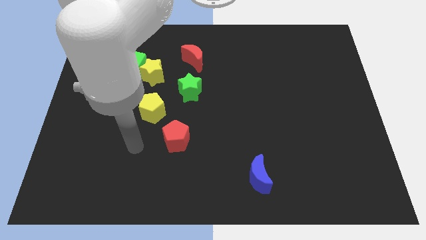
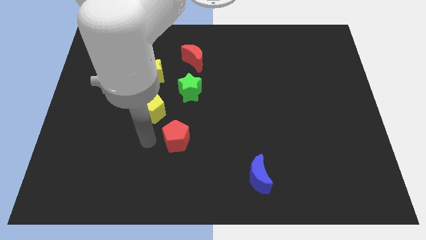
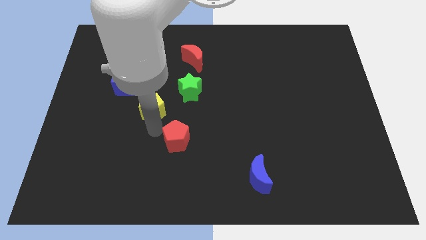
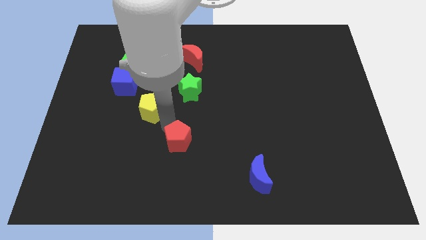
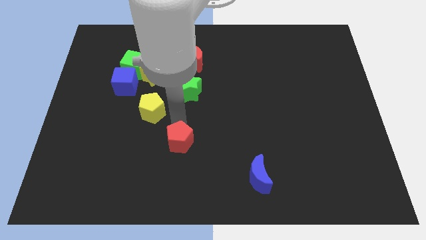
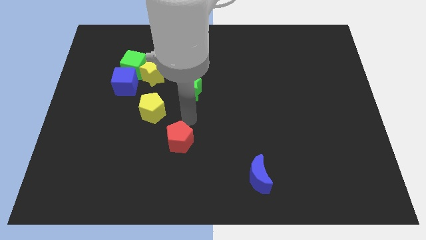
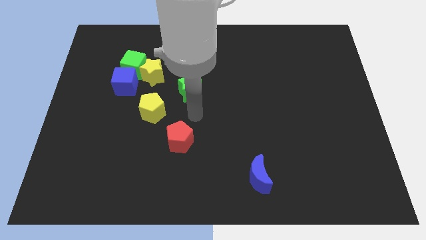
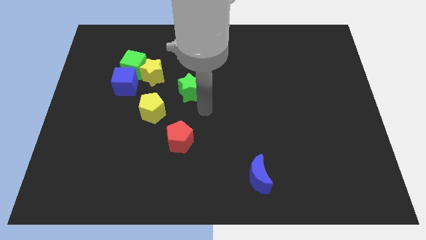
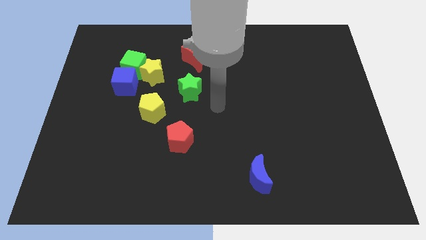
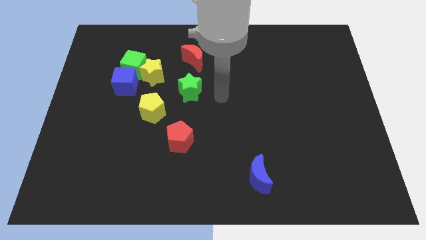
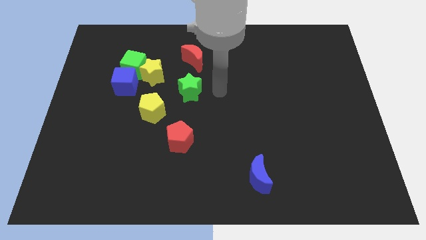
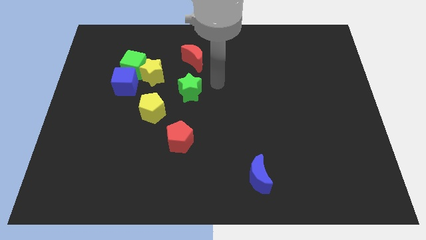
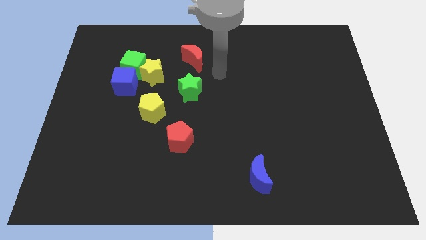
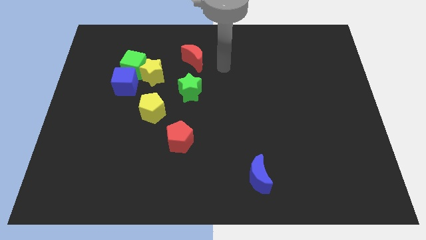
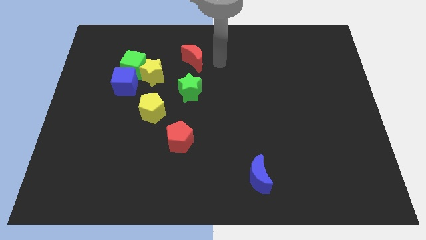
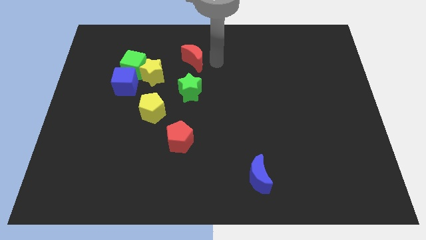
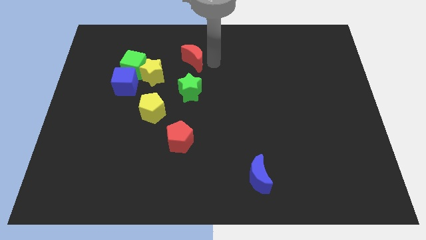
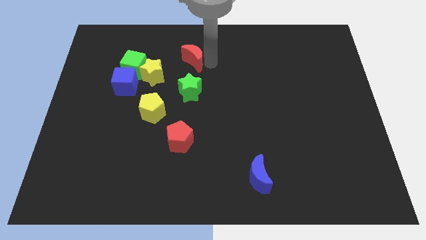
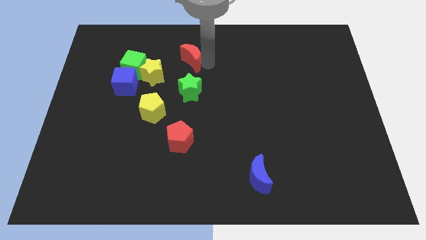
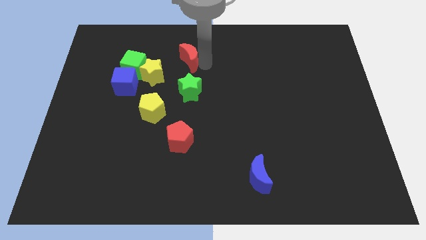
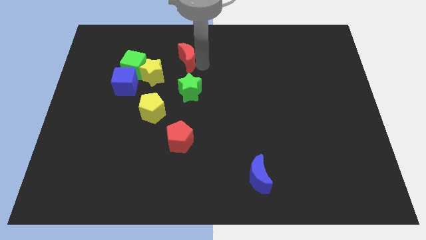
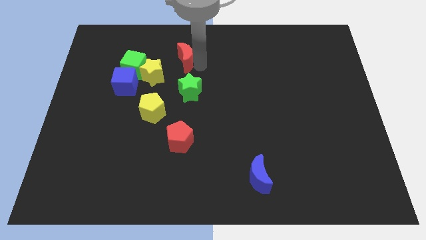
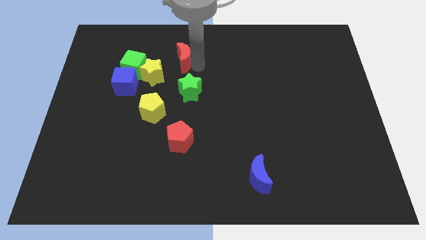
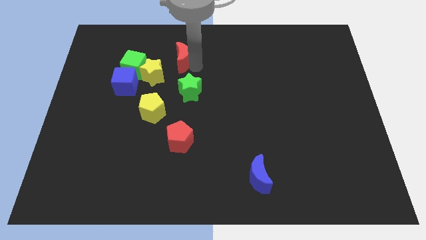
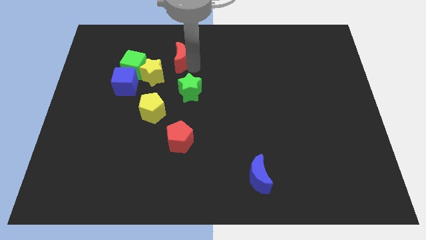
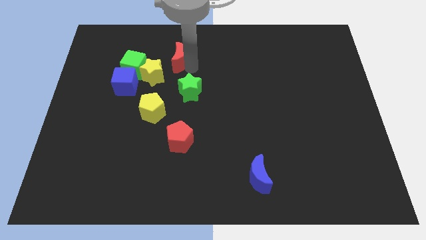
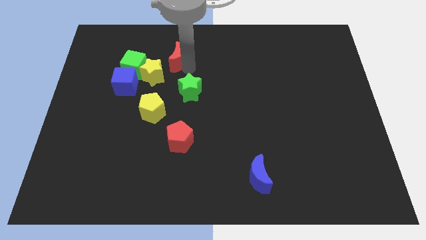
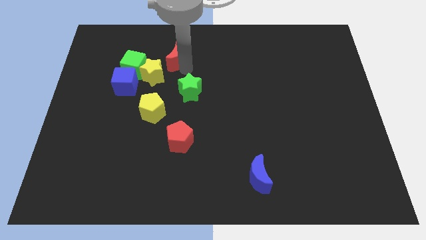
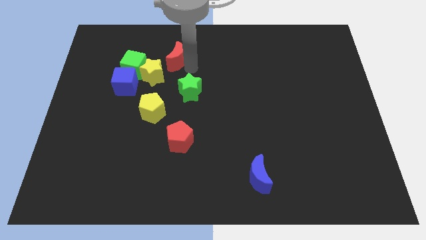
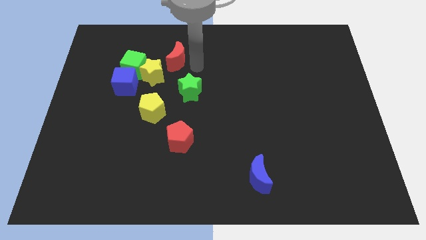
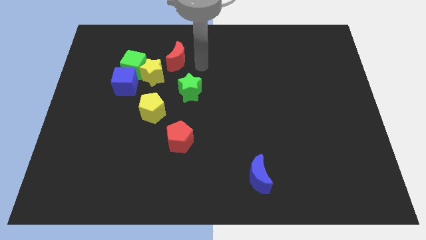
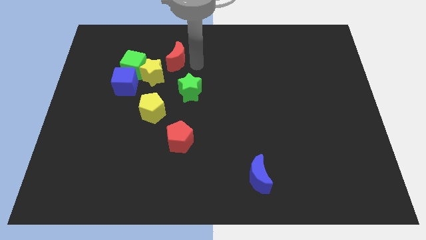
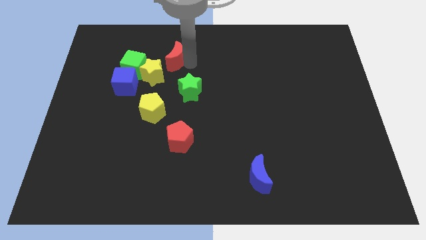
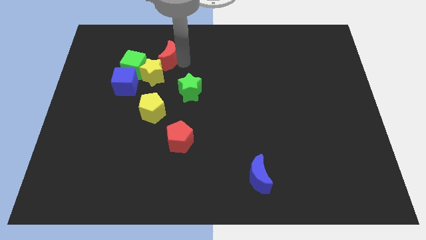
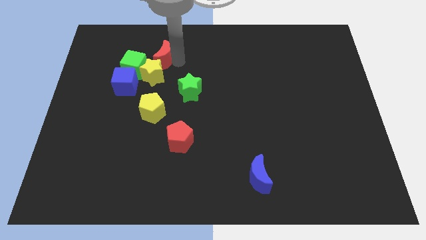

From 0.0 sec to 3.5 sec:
push the red moon to the left a bit

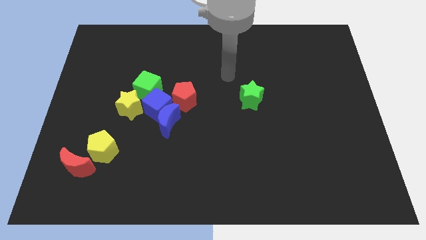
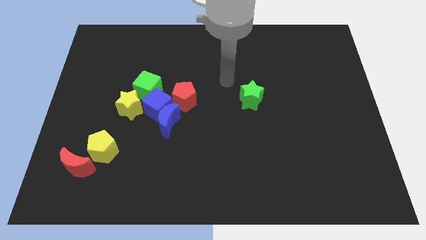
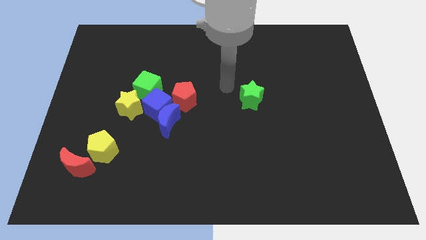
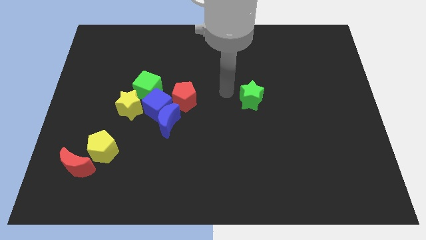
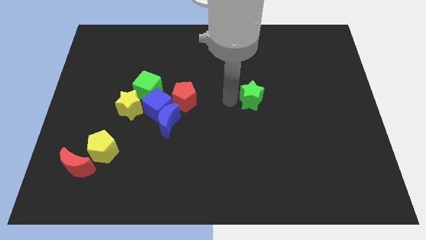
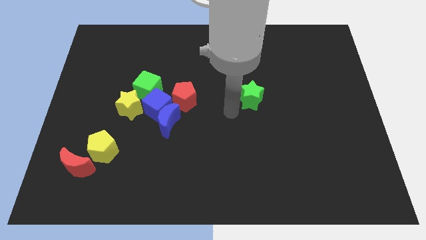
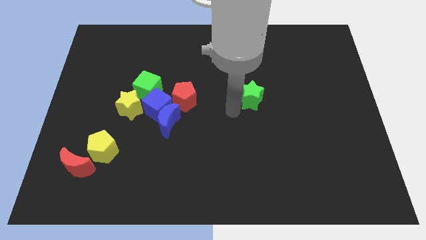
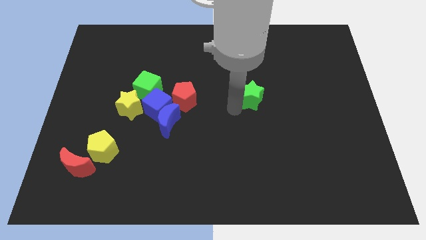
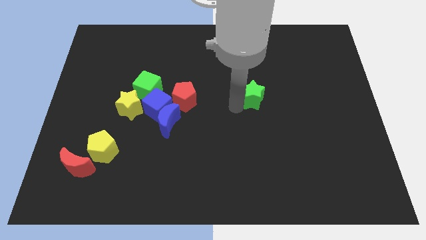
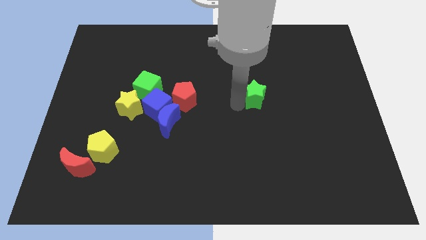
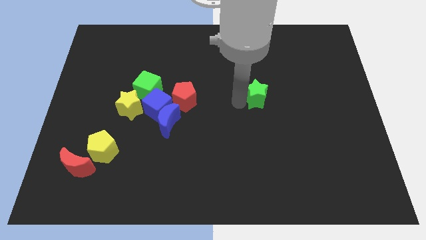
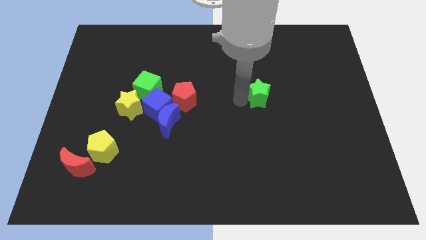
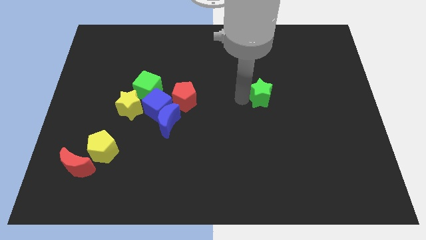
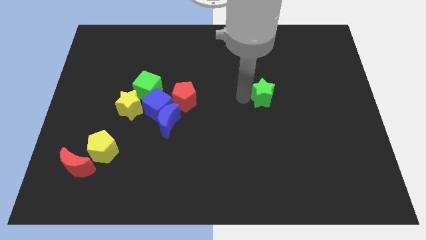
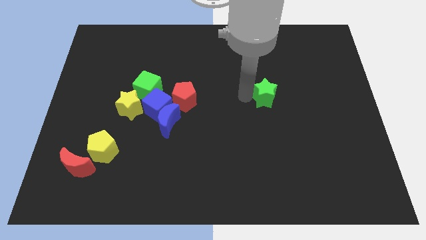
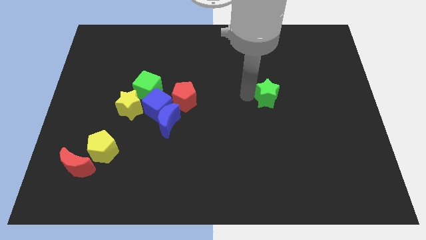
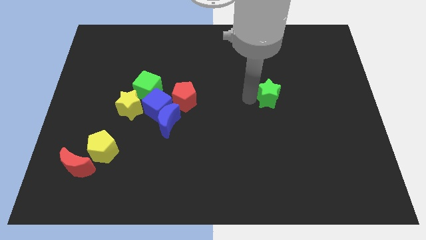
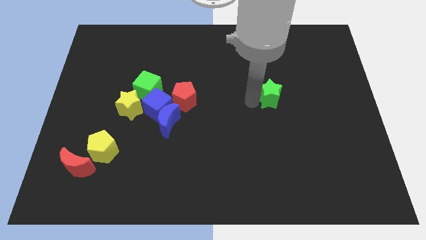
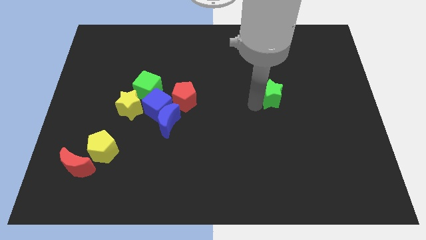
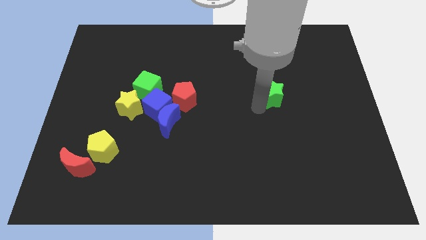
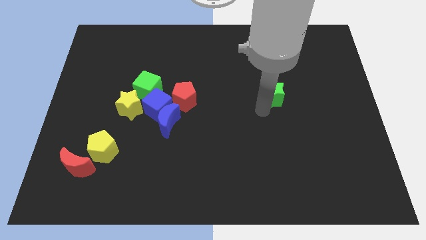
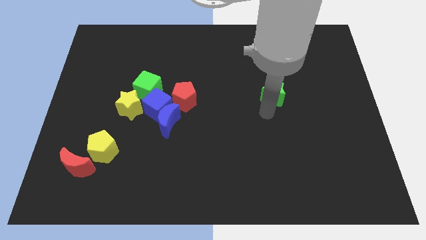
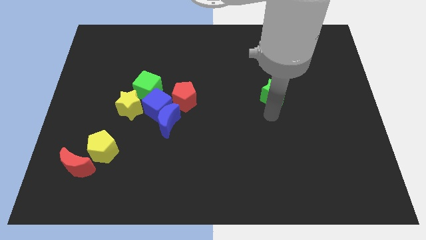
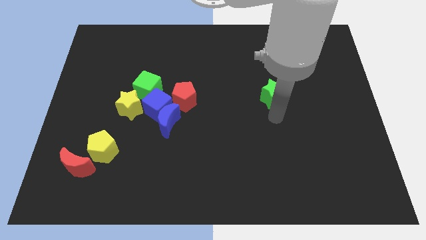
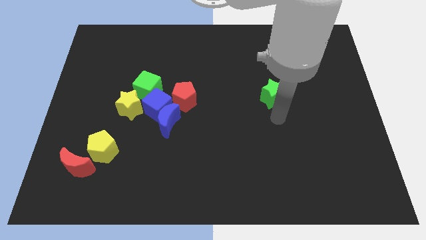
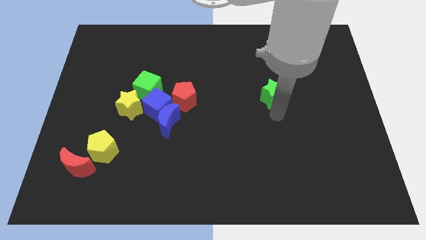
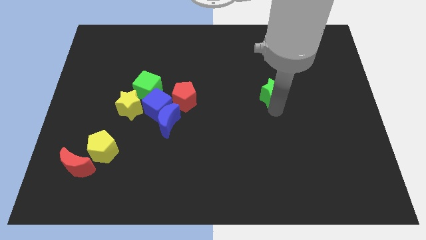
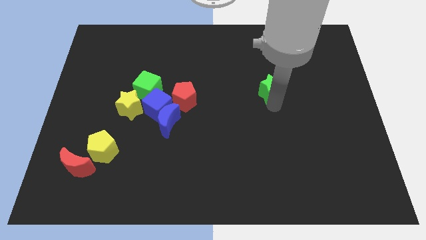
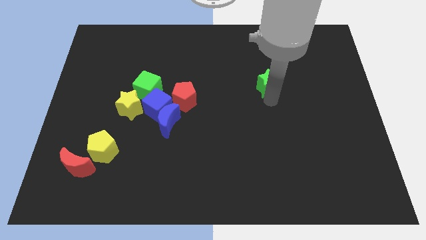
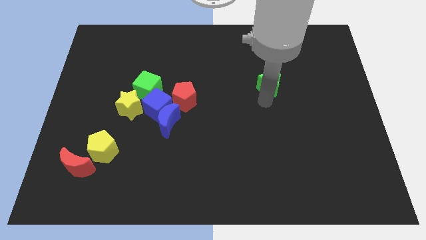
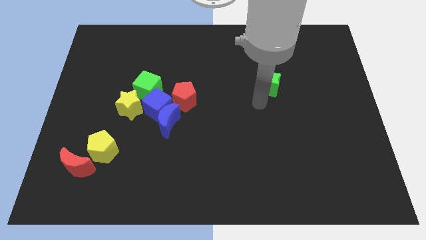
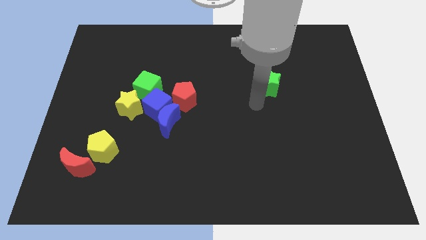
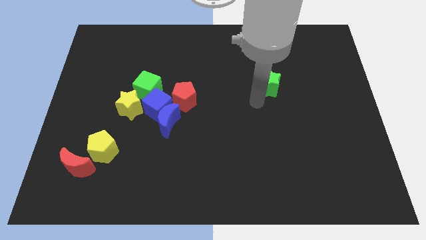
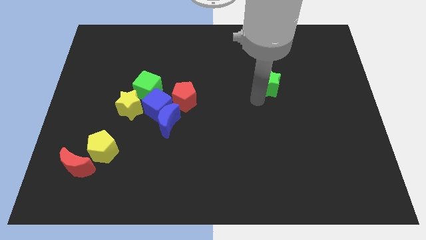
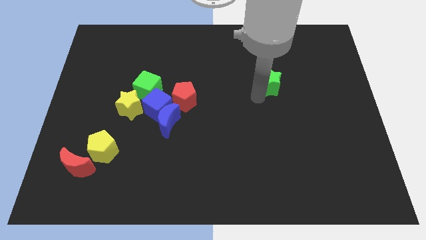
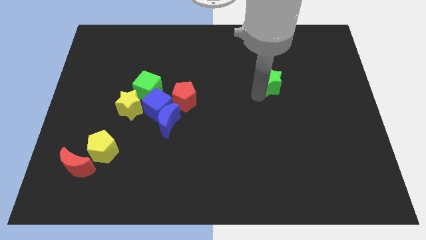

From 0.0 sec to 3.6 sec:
slightly move the green star diagonally upwards and right

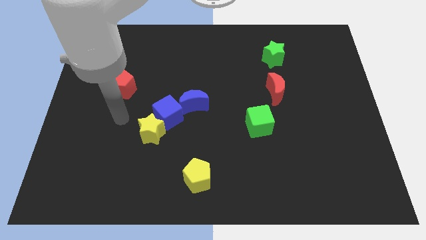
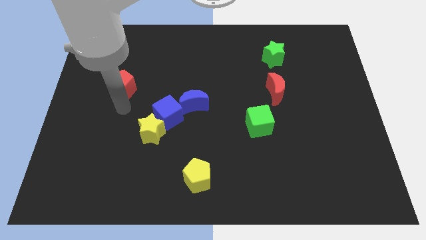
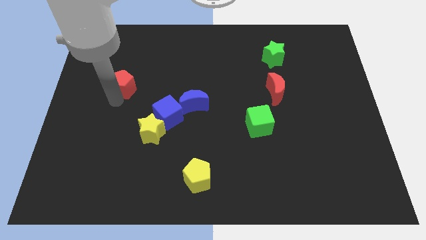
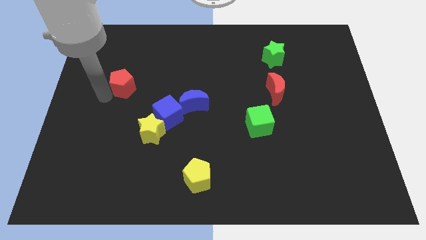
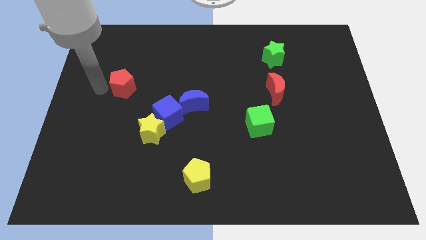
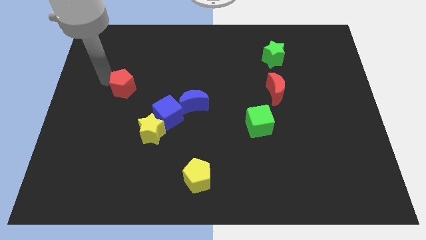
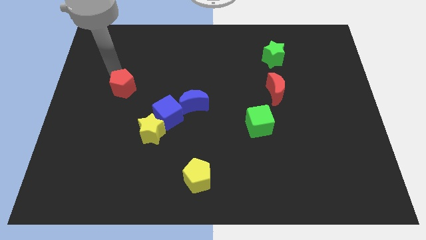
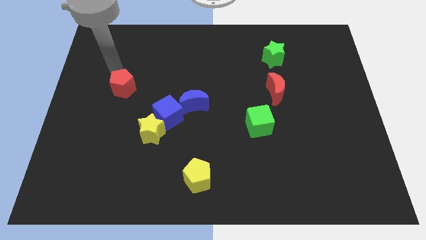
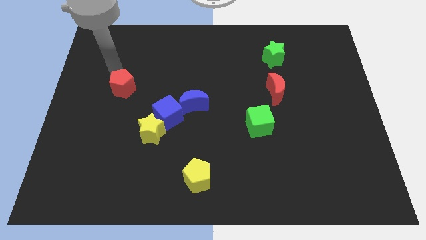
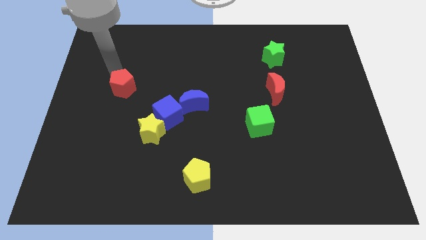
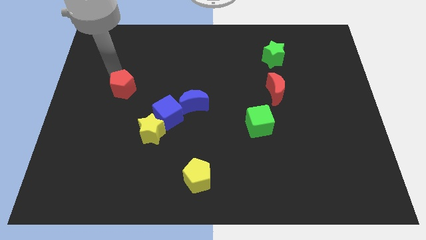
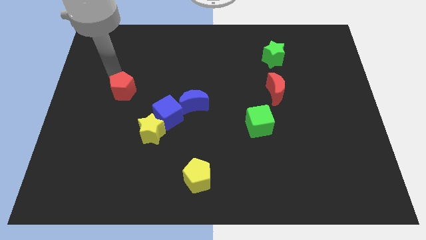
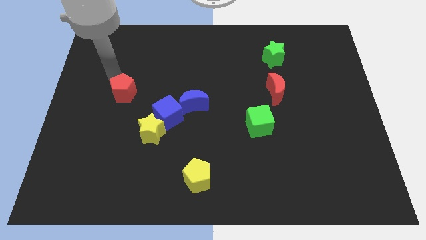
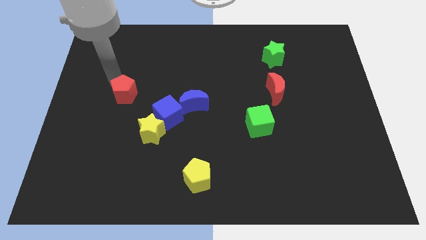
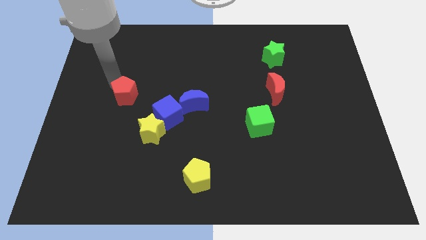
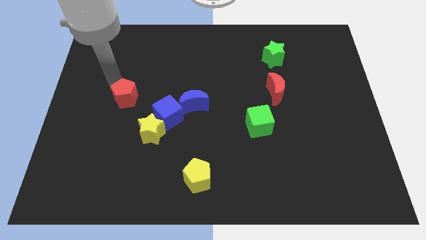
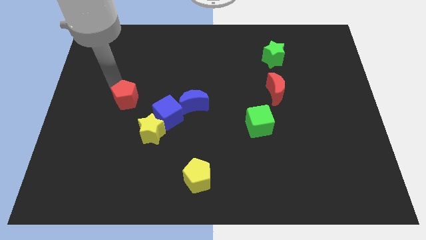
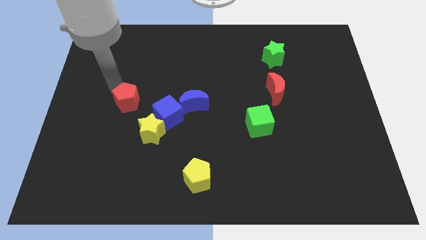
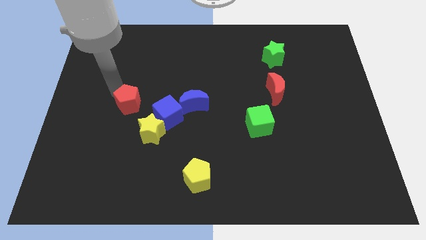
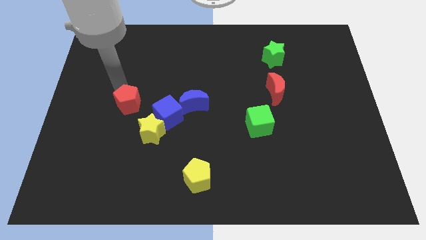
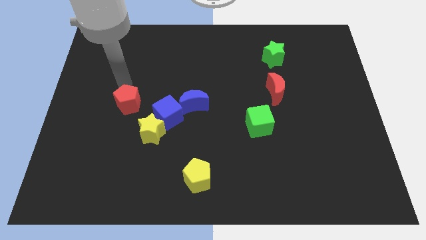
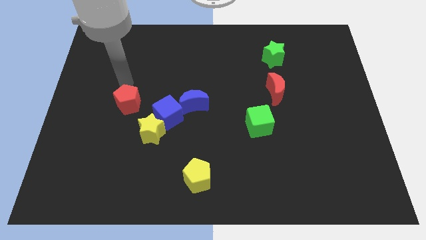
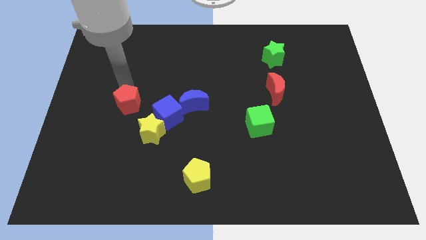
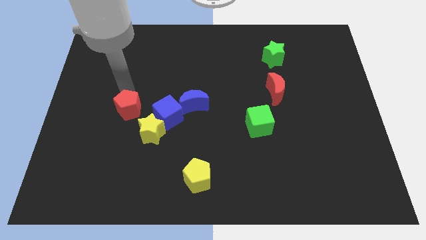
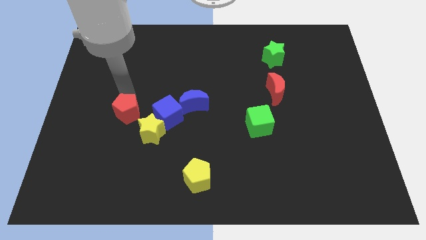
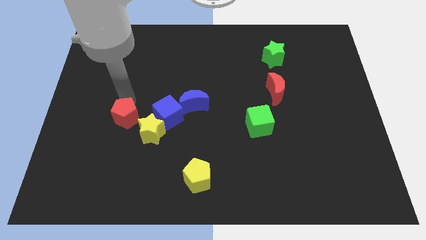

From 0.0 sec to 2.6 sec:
slide the red pentagon a little downwards and then right
